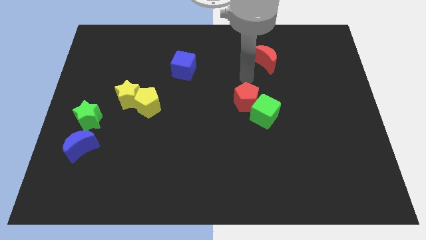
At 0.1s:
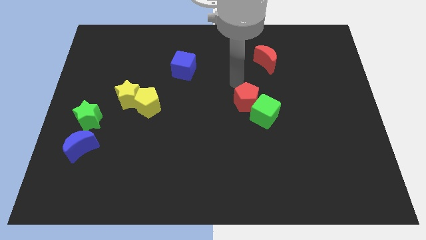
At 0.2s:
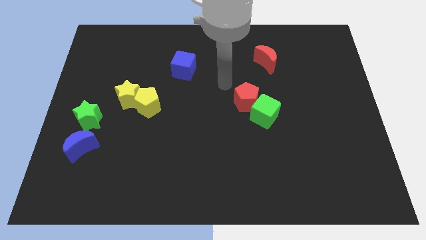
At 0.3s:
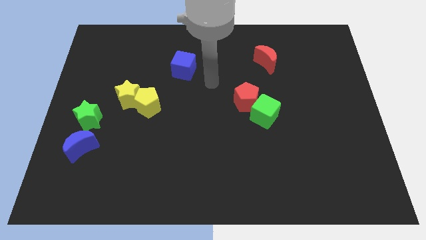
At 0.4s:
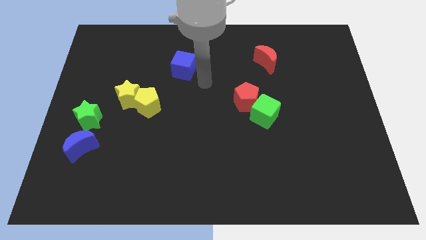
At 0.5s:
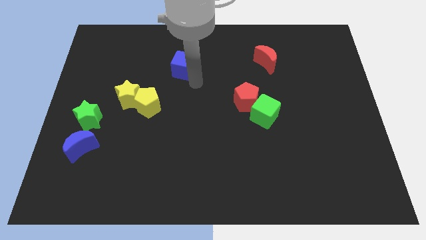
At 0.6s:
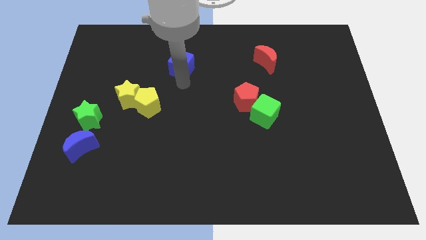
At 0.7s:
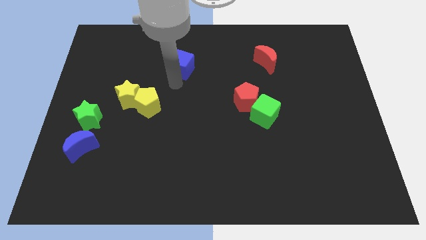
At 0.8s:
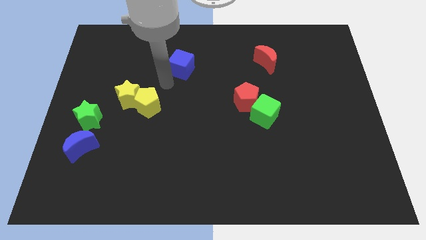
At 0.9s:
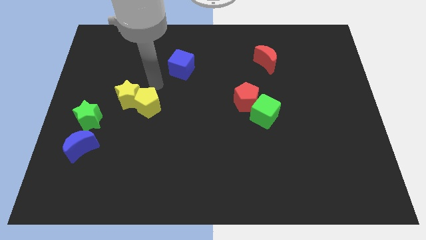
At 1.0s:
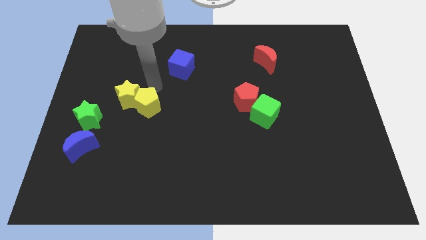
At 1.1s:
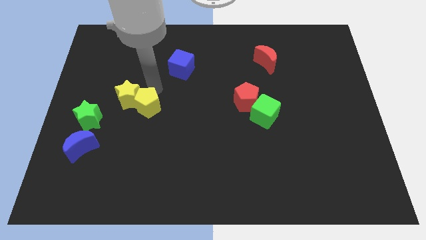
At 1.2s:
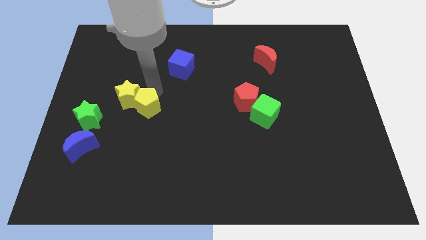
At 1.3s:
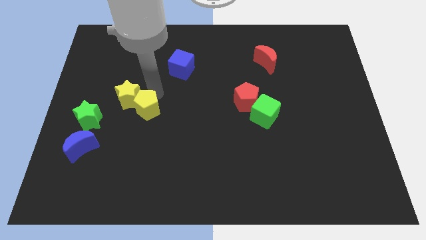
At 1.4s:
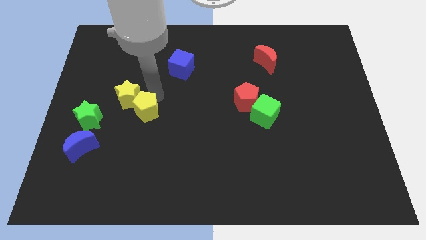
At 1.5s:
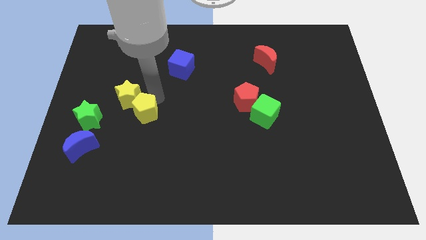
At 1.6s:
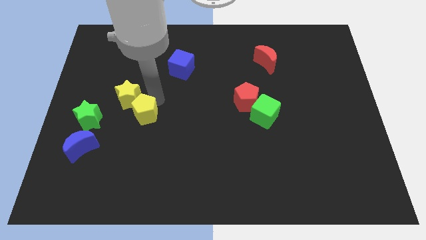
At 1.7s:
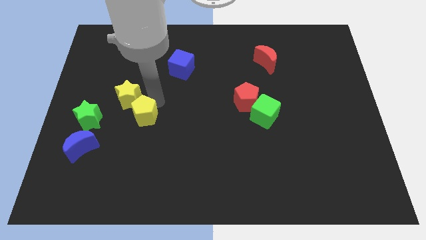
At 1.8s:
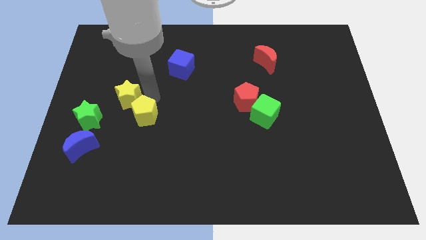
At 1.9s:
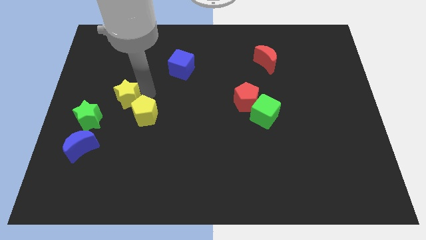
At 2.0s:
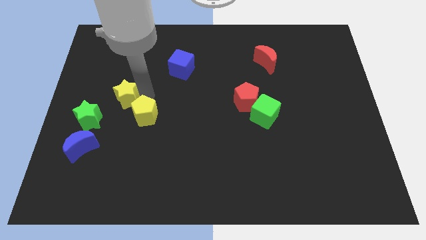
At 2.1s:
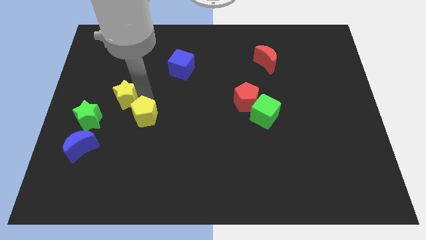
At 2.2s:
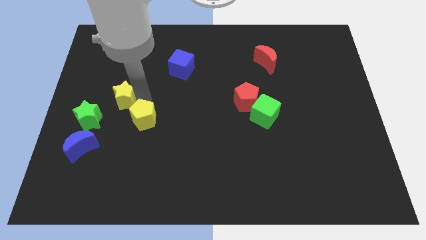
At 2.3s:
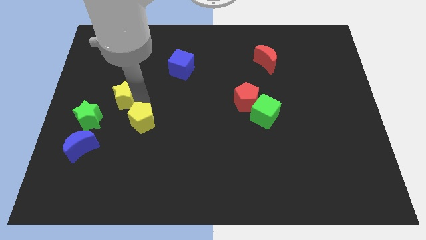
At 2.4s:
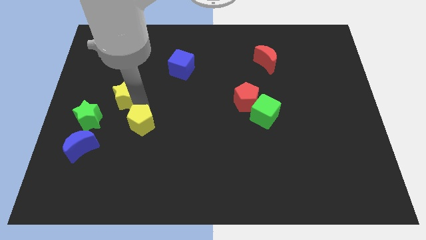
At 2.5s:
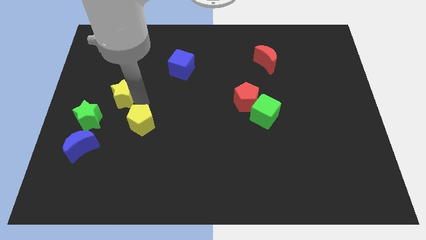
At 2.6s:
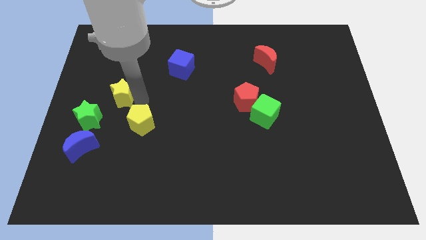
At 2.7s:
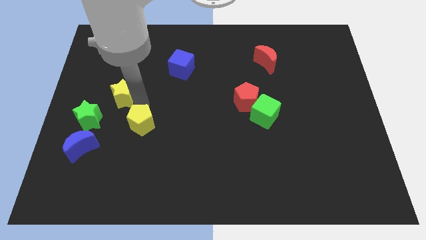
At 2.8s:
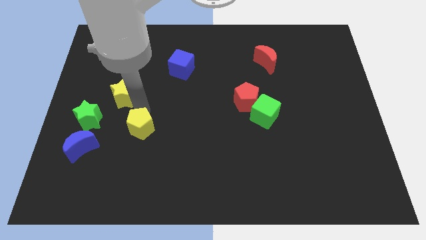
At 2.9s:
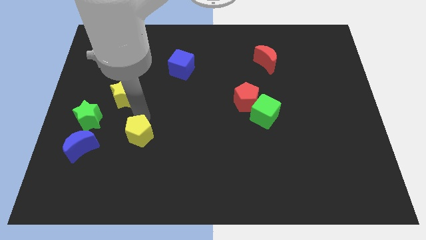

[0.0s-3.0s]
slightly push the yellow pentagon down

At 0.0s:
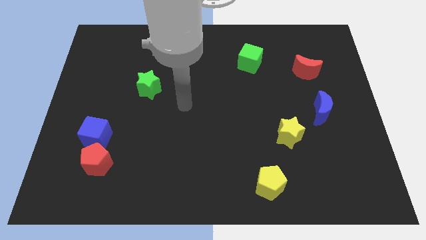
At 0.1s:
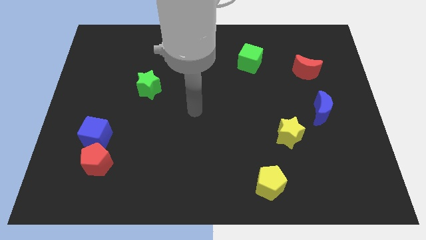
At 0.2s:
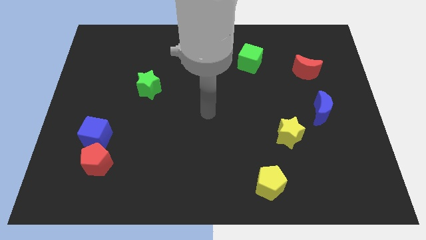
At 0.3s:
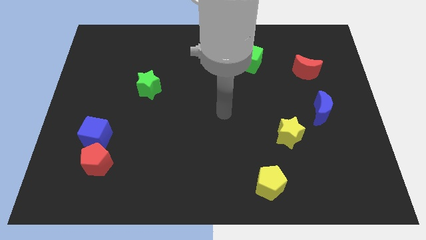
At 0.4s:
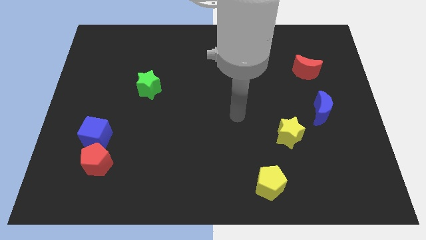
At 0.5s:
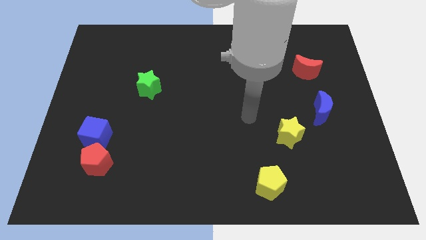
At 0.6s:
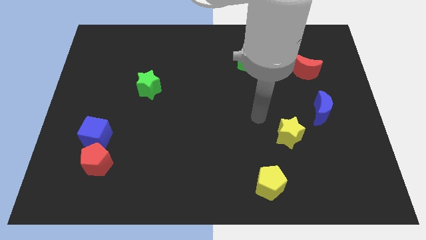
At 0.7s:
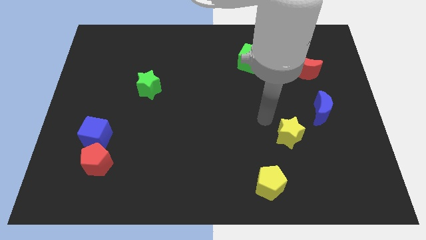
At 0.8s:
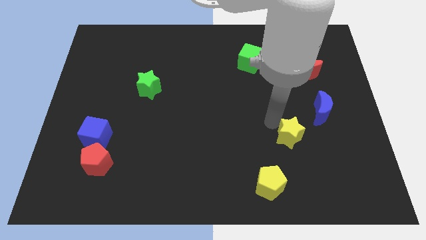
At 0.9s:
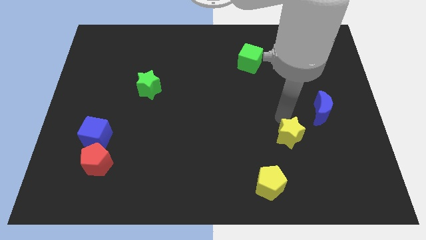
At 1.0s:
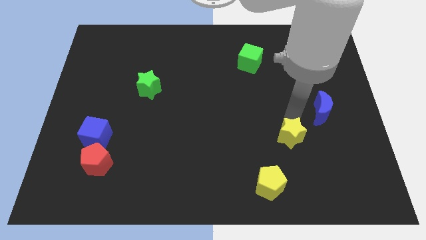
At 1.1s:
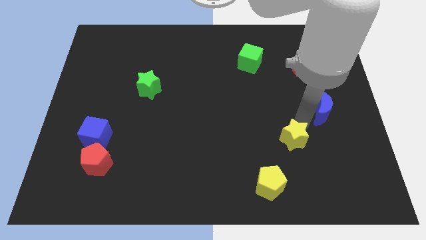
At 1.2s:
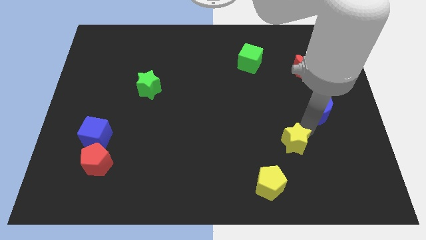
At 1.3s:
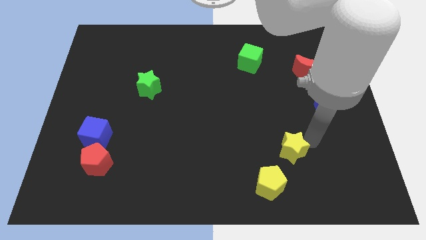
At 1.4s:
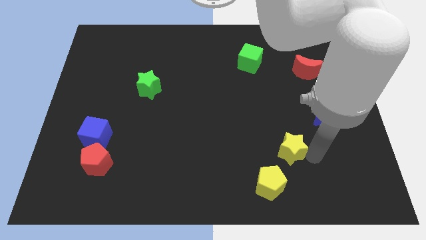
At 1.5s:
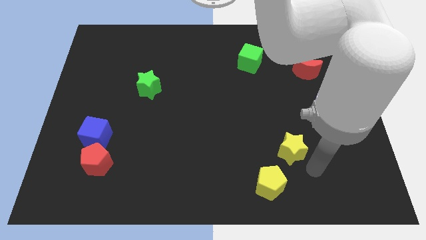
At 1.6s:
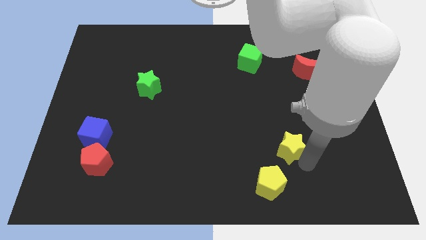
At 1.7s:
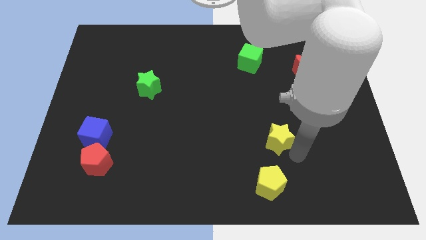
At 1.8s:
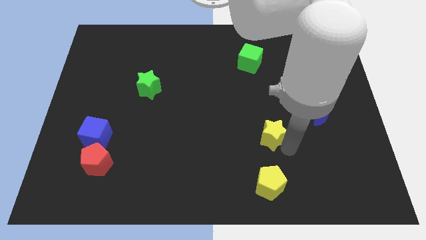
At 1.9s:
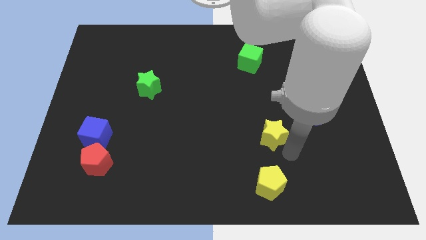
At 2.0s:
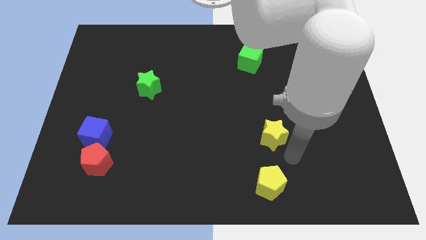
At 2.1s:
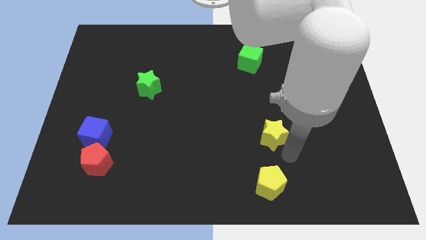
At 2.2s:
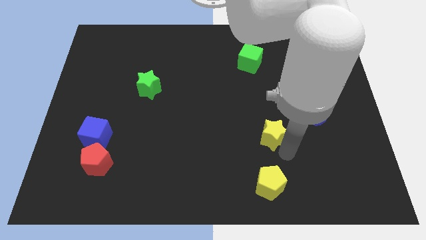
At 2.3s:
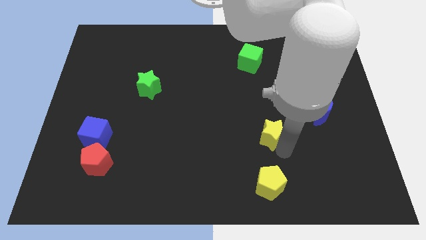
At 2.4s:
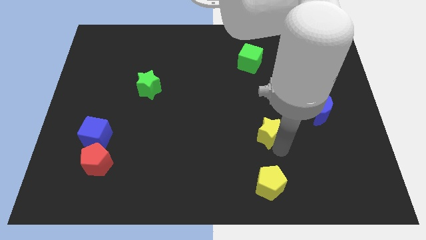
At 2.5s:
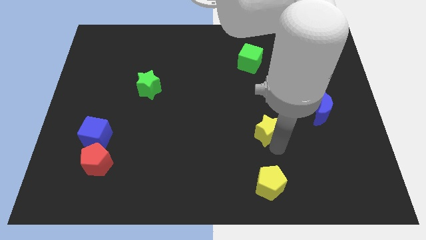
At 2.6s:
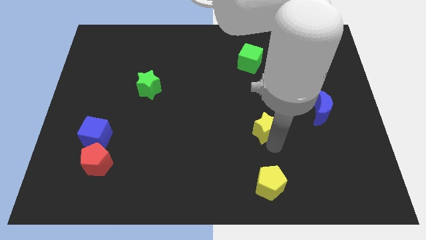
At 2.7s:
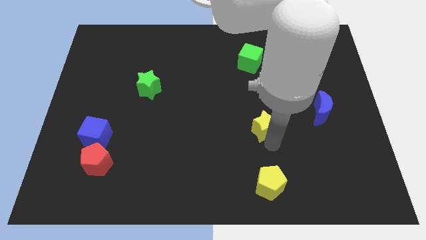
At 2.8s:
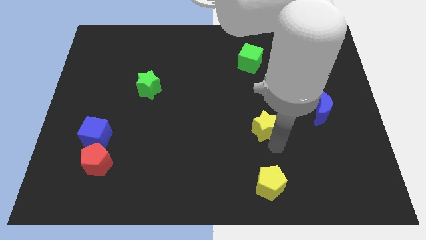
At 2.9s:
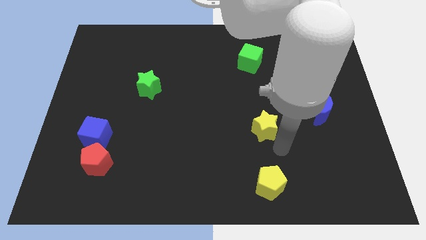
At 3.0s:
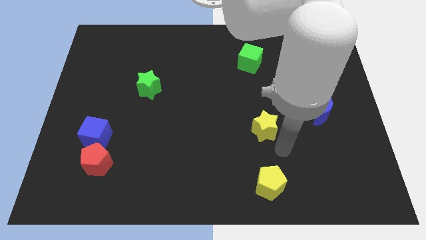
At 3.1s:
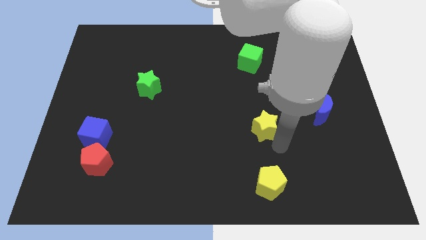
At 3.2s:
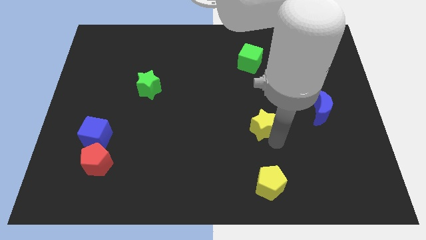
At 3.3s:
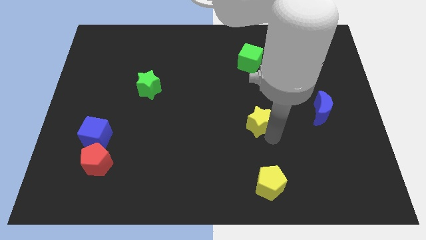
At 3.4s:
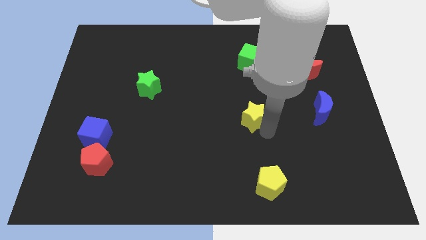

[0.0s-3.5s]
move the yellow star up and to the left somewhat

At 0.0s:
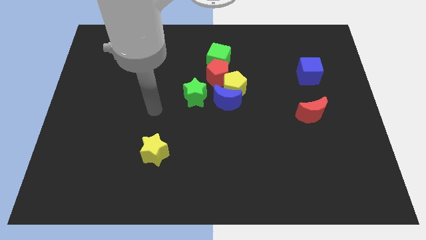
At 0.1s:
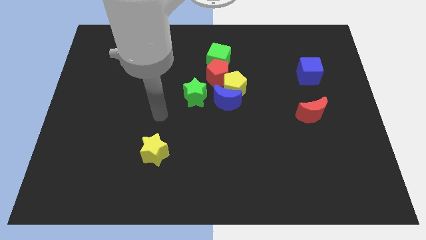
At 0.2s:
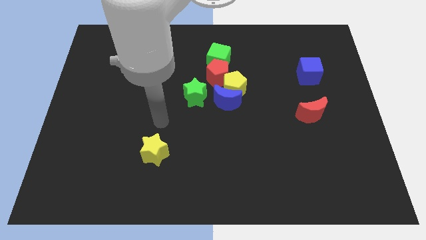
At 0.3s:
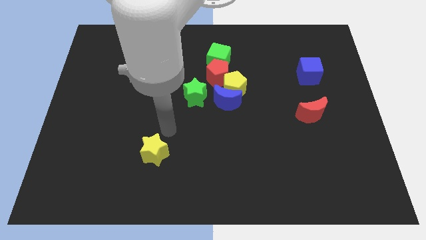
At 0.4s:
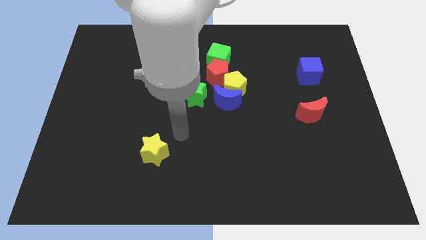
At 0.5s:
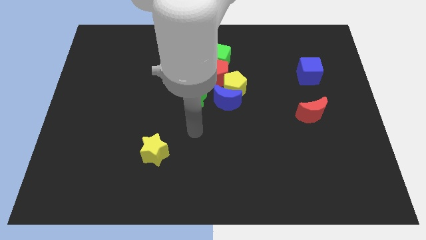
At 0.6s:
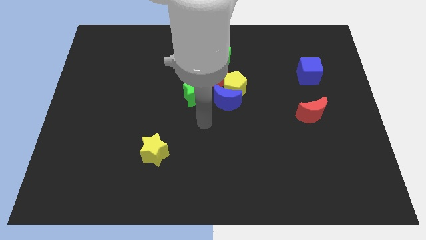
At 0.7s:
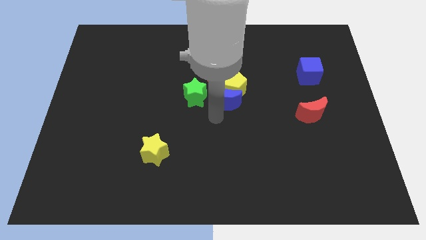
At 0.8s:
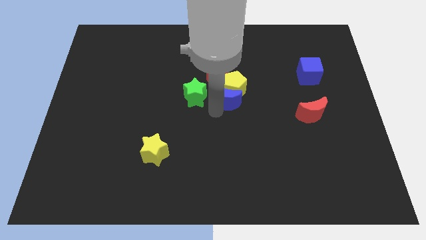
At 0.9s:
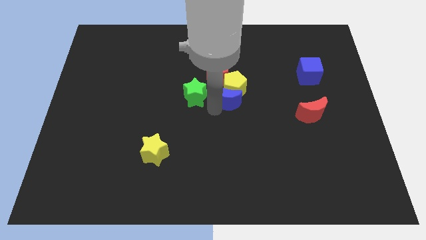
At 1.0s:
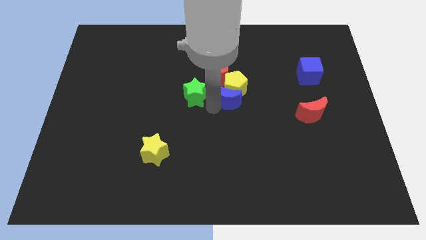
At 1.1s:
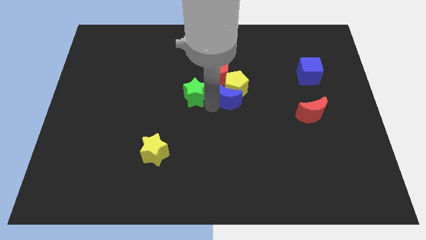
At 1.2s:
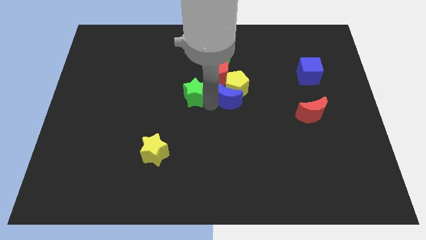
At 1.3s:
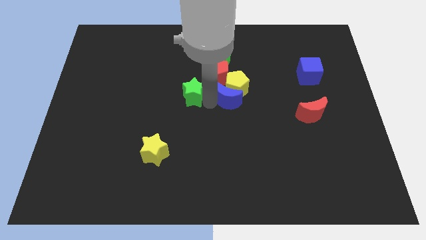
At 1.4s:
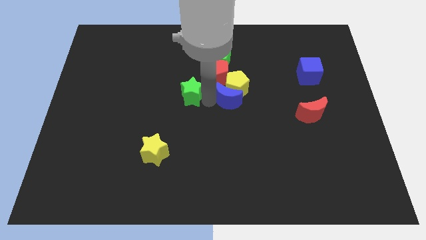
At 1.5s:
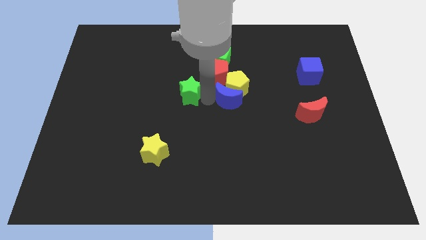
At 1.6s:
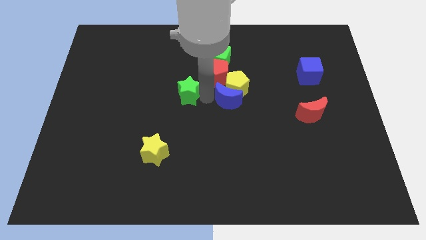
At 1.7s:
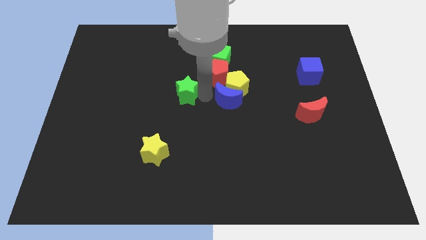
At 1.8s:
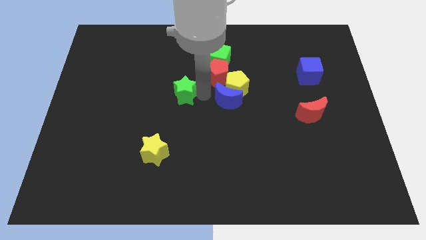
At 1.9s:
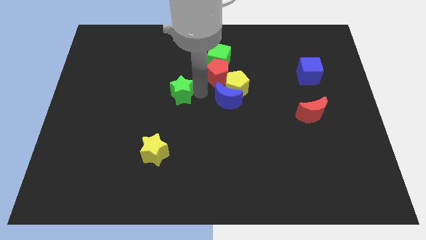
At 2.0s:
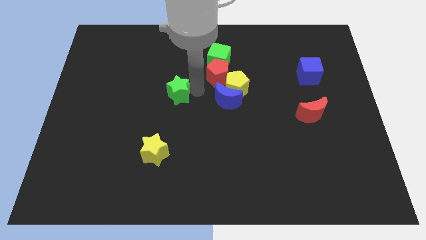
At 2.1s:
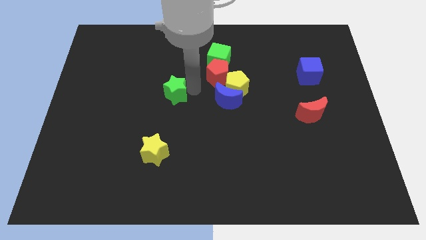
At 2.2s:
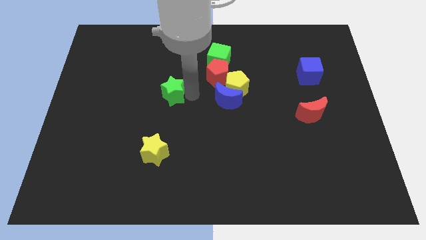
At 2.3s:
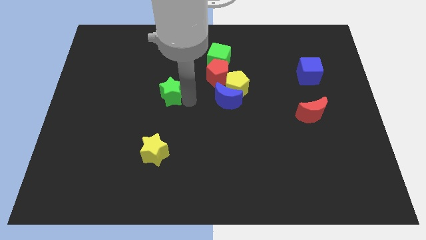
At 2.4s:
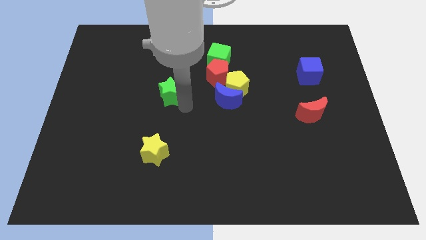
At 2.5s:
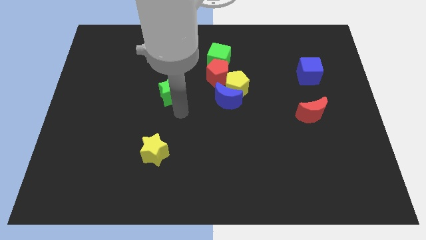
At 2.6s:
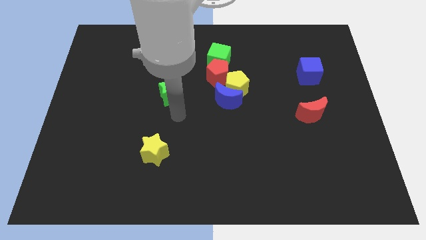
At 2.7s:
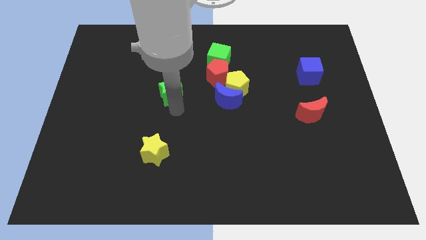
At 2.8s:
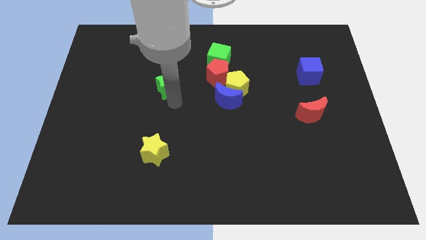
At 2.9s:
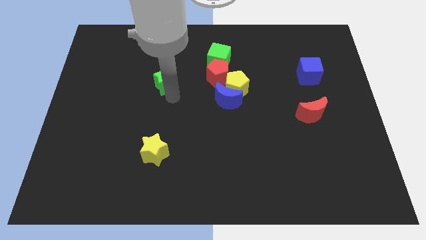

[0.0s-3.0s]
slide the green star up and then left a bit
